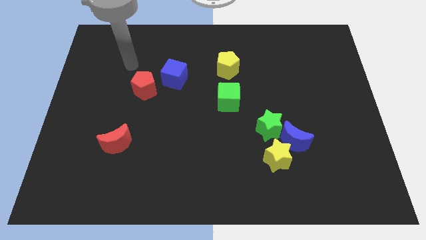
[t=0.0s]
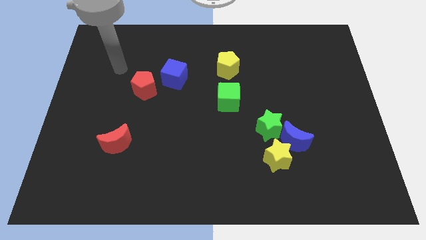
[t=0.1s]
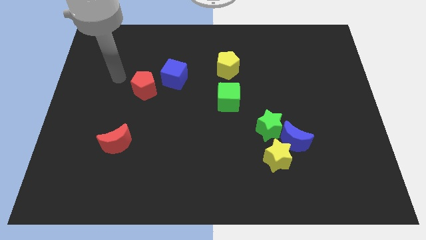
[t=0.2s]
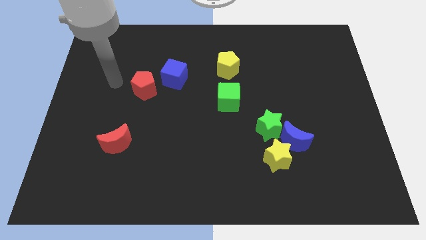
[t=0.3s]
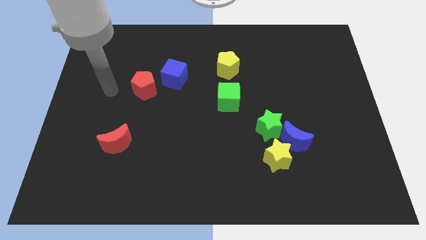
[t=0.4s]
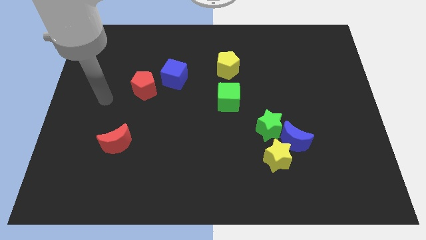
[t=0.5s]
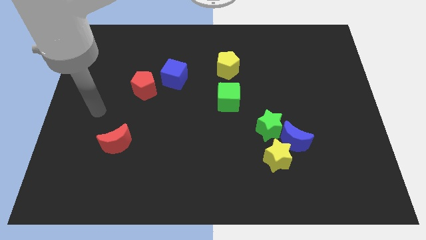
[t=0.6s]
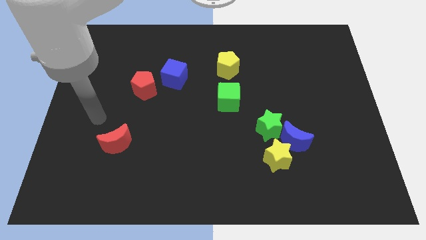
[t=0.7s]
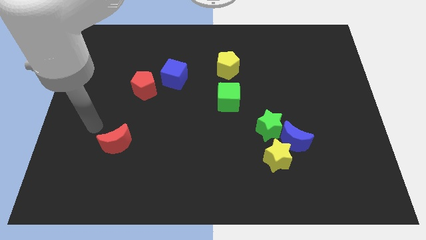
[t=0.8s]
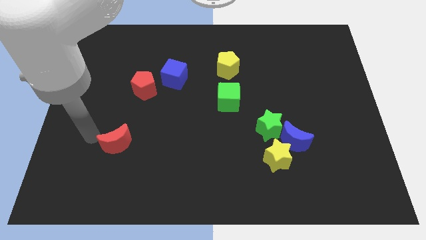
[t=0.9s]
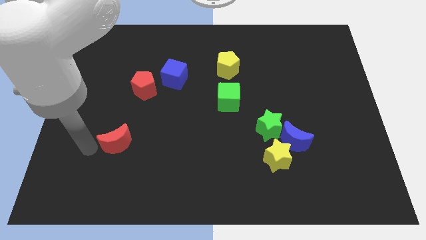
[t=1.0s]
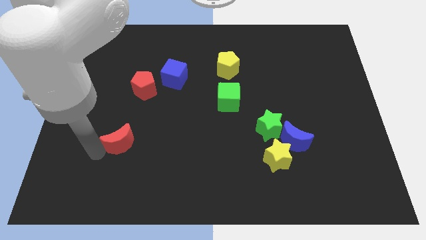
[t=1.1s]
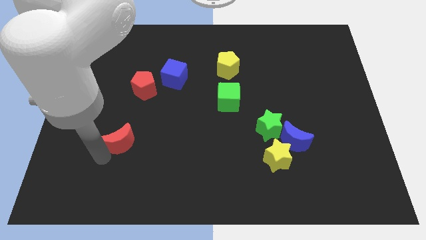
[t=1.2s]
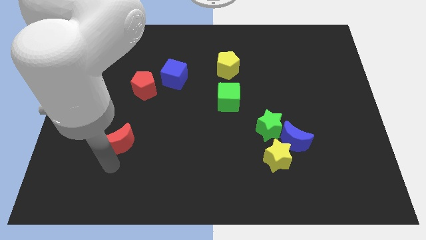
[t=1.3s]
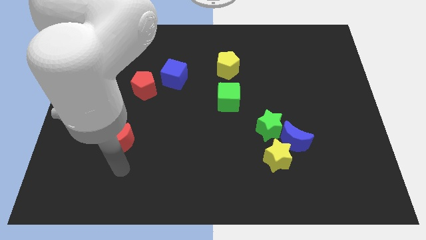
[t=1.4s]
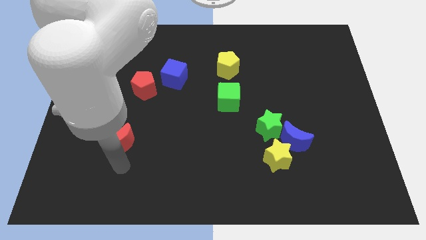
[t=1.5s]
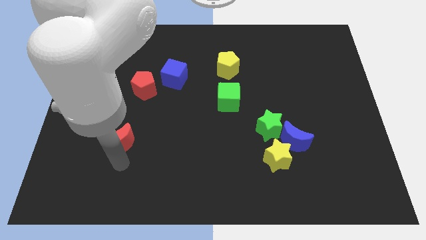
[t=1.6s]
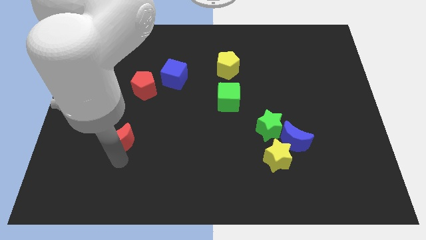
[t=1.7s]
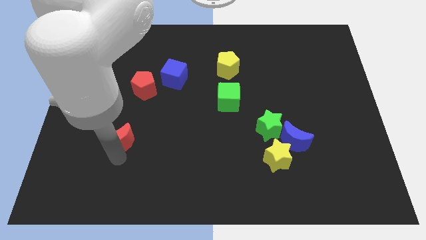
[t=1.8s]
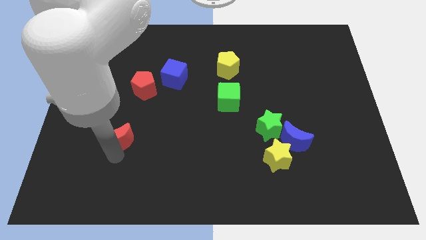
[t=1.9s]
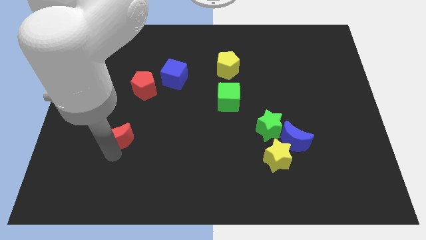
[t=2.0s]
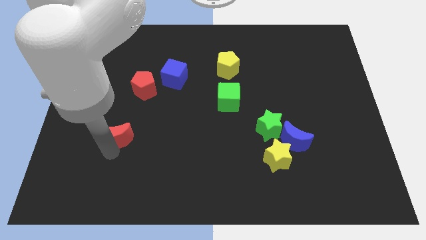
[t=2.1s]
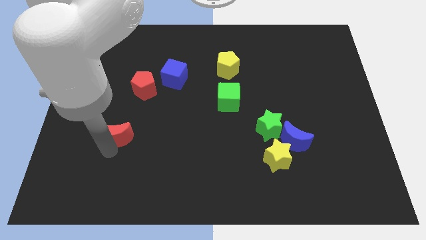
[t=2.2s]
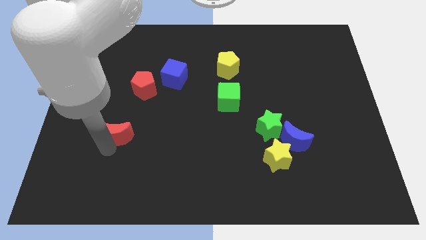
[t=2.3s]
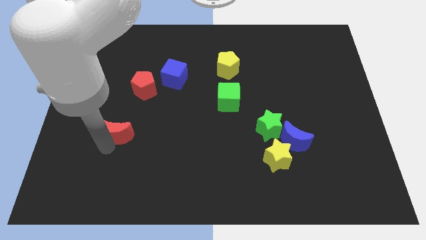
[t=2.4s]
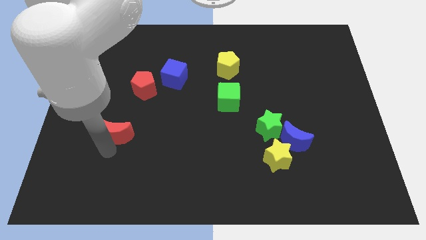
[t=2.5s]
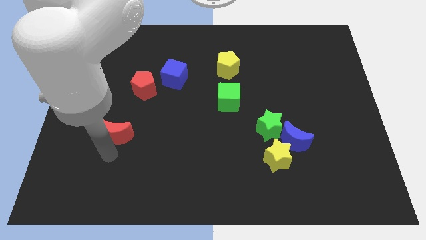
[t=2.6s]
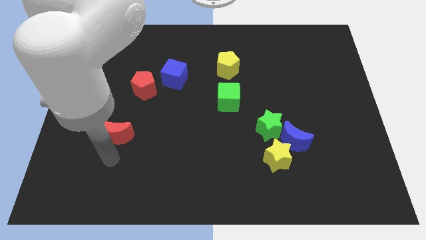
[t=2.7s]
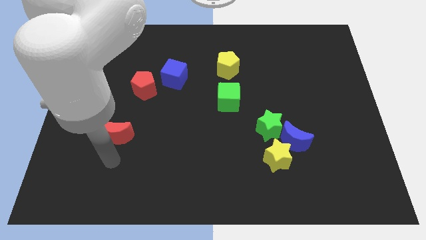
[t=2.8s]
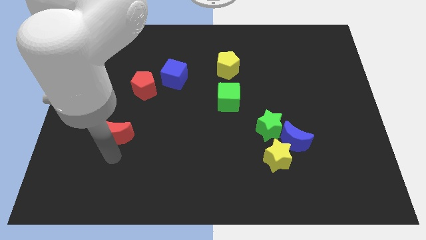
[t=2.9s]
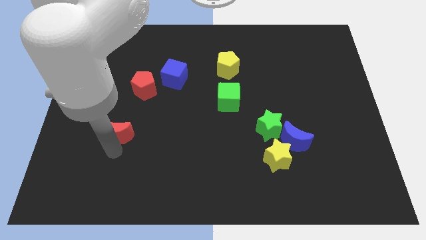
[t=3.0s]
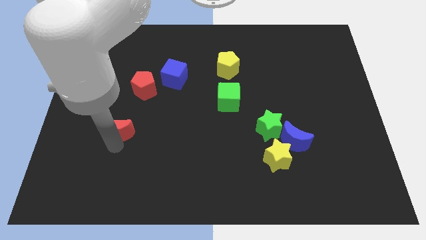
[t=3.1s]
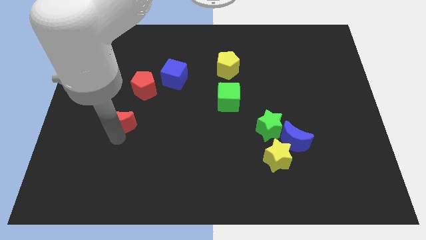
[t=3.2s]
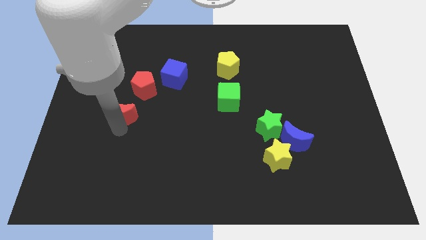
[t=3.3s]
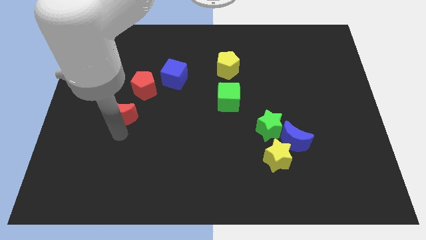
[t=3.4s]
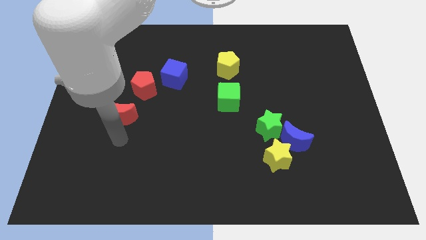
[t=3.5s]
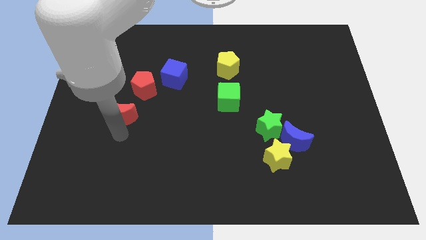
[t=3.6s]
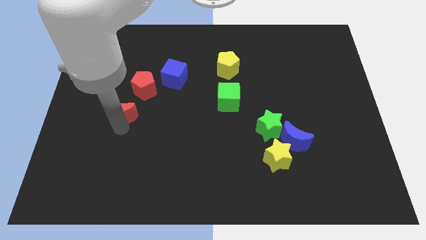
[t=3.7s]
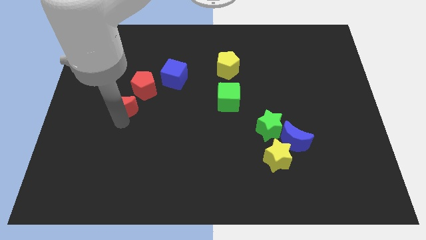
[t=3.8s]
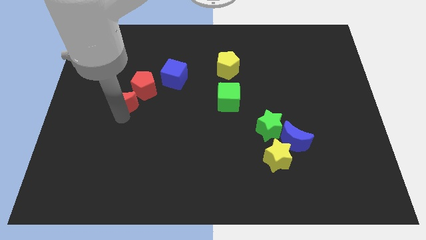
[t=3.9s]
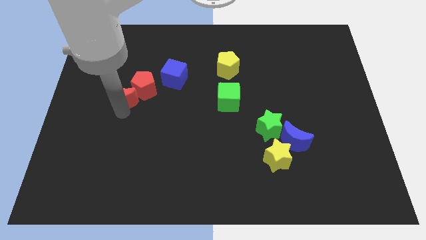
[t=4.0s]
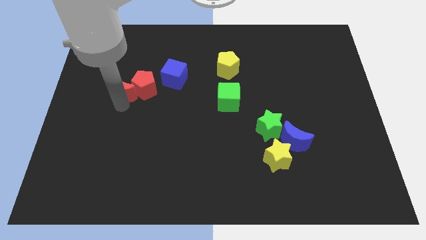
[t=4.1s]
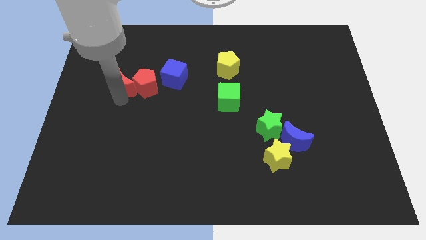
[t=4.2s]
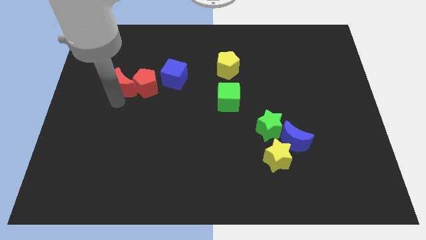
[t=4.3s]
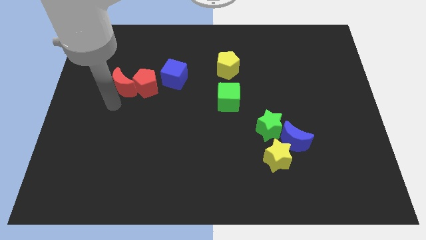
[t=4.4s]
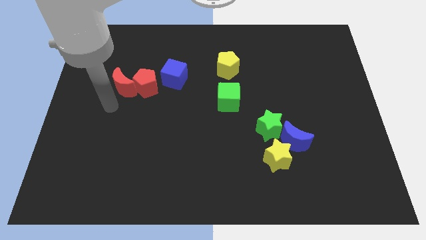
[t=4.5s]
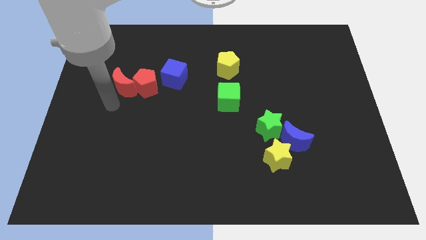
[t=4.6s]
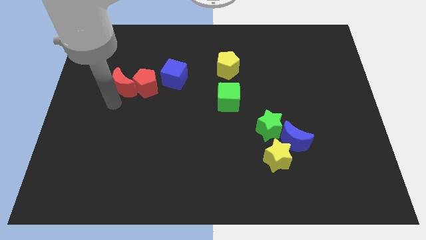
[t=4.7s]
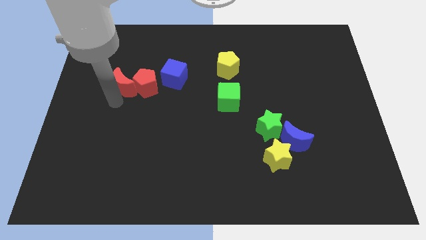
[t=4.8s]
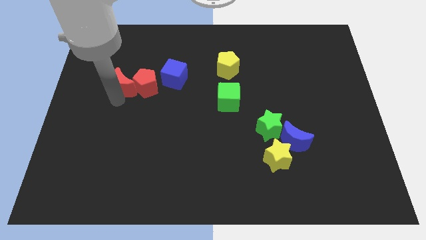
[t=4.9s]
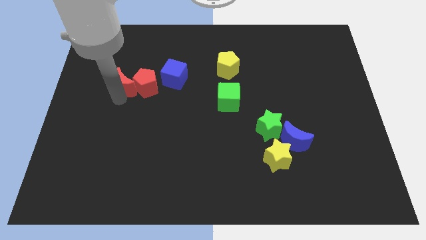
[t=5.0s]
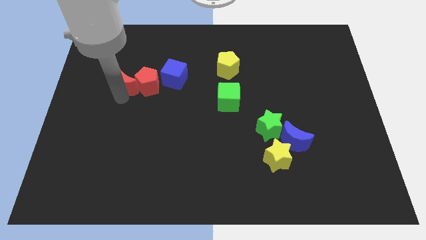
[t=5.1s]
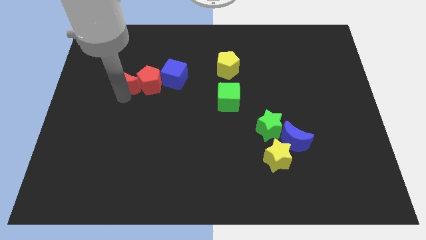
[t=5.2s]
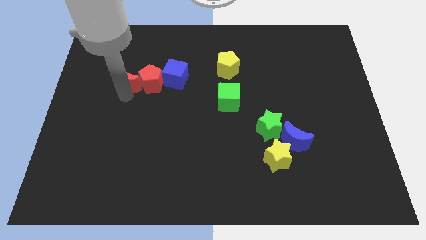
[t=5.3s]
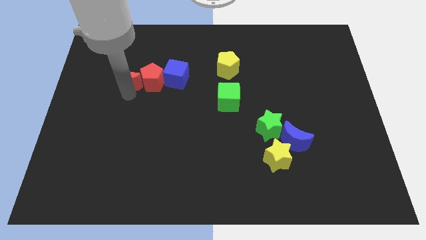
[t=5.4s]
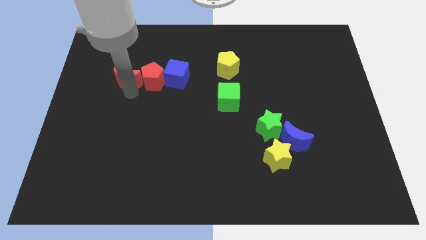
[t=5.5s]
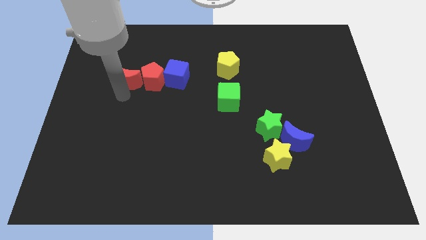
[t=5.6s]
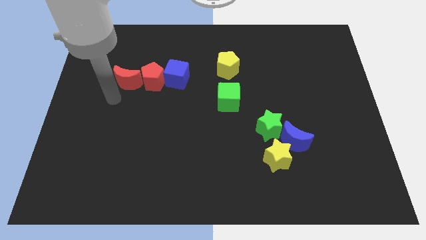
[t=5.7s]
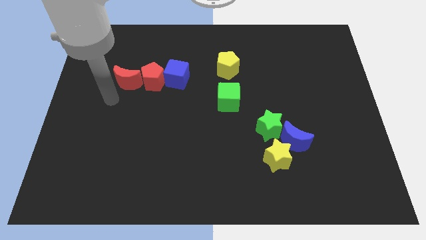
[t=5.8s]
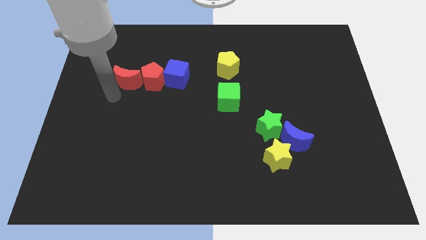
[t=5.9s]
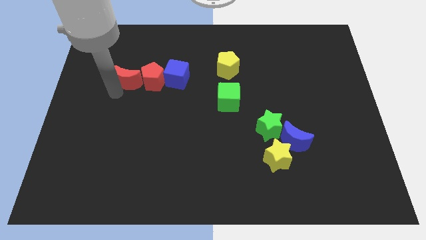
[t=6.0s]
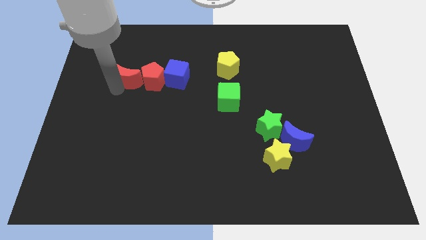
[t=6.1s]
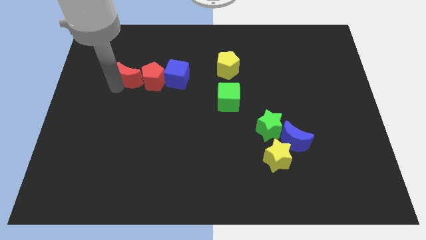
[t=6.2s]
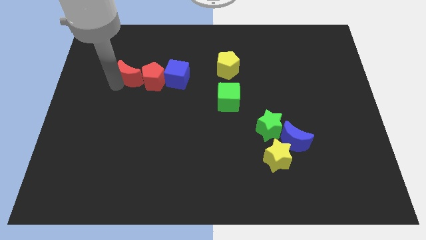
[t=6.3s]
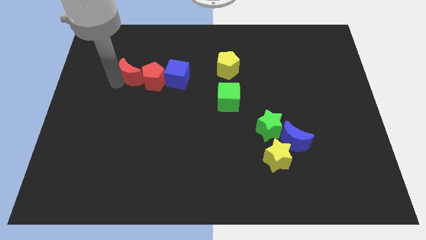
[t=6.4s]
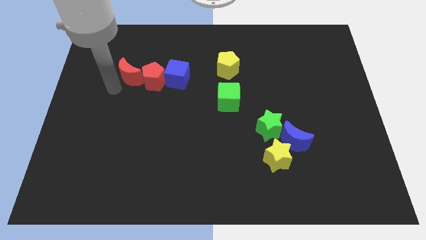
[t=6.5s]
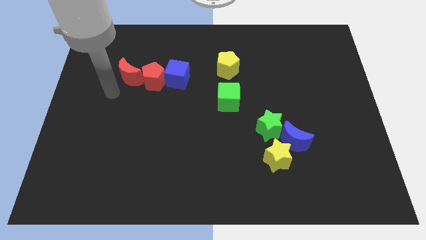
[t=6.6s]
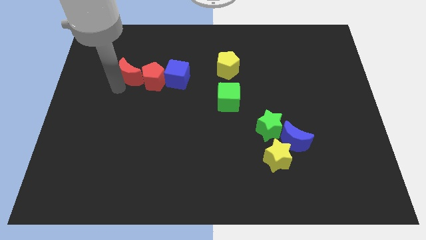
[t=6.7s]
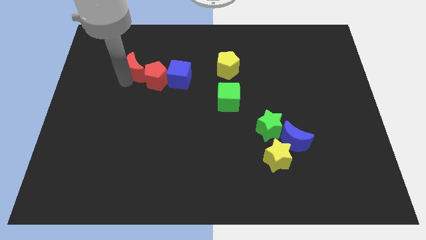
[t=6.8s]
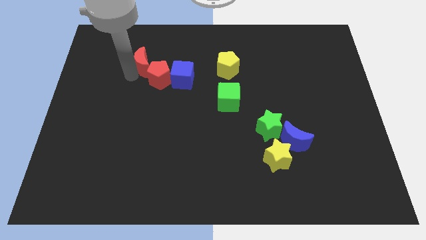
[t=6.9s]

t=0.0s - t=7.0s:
push the red moon to the top of the red pentagon

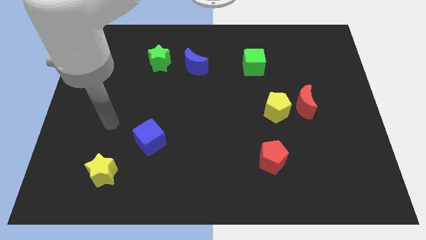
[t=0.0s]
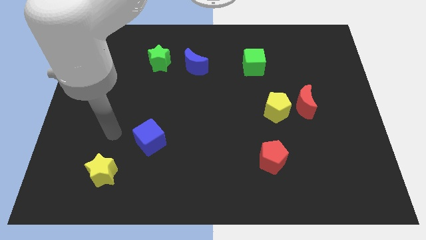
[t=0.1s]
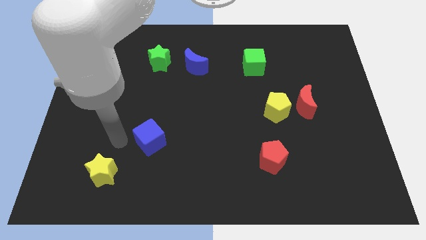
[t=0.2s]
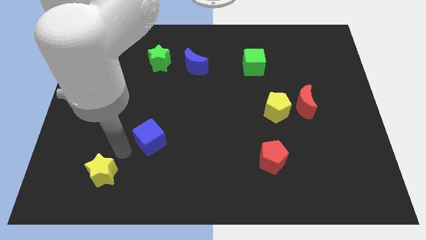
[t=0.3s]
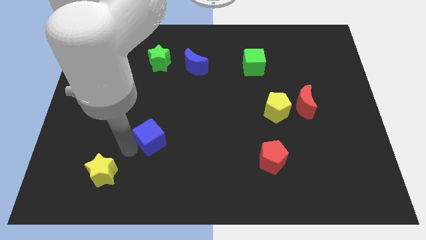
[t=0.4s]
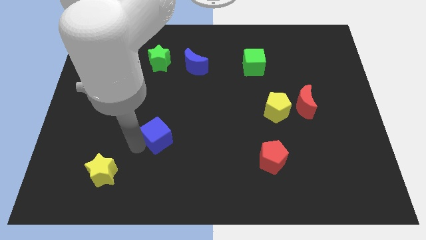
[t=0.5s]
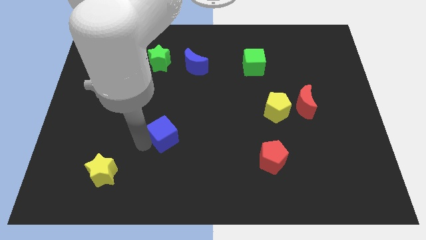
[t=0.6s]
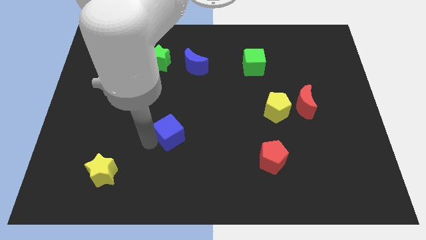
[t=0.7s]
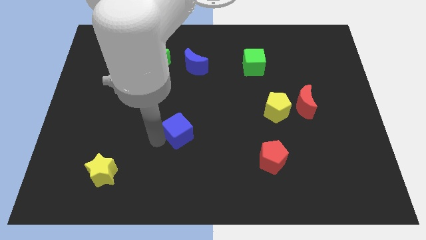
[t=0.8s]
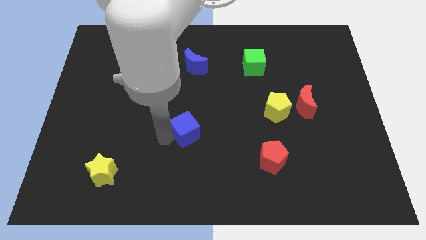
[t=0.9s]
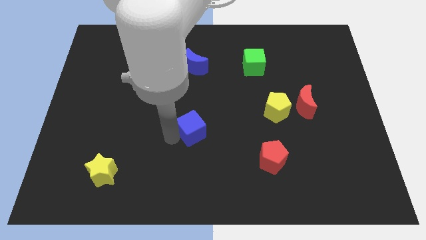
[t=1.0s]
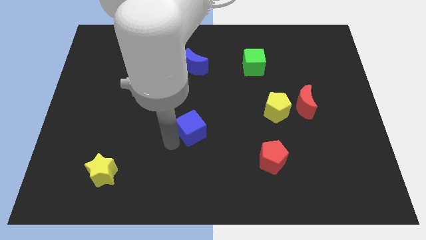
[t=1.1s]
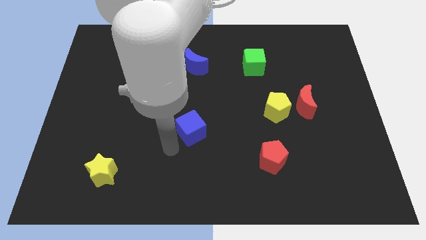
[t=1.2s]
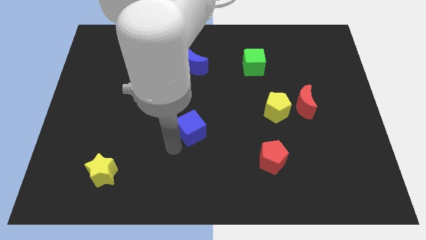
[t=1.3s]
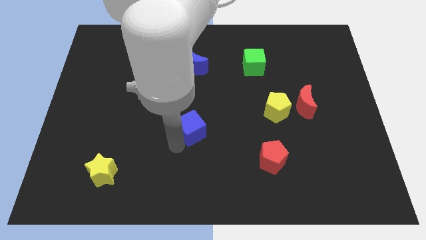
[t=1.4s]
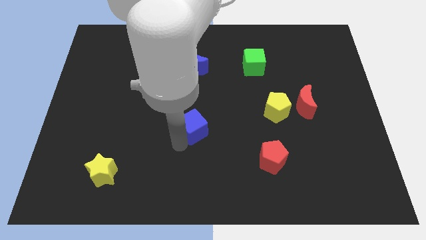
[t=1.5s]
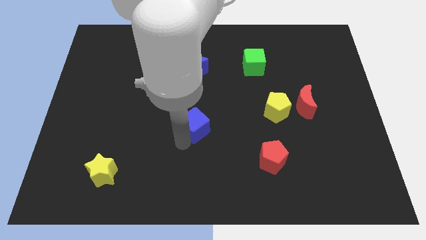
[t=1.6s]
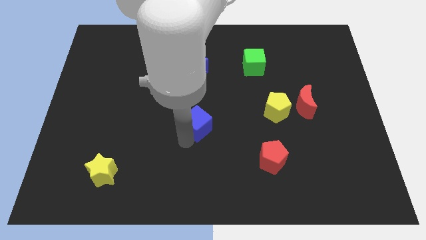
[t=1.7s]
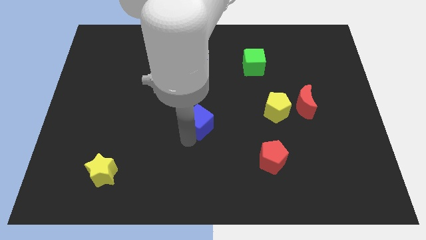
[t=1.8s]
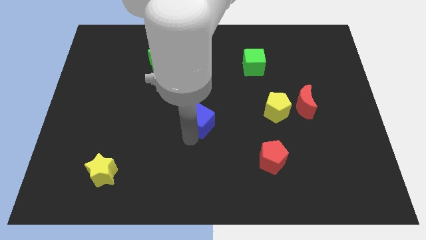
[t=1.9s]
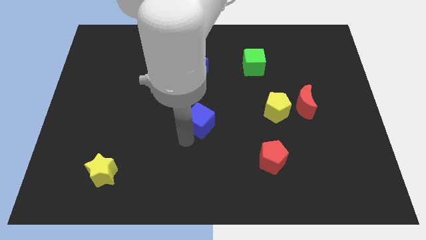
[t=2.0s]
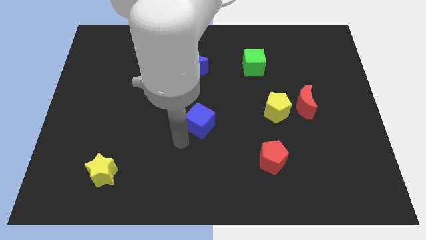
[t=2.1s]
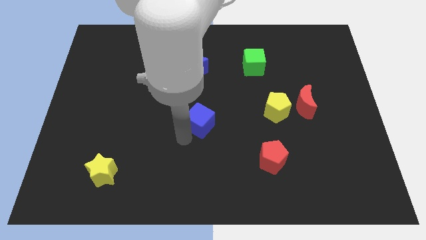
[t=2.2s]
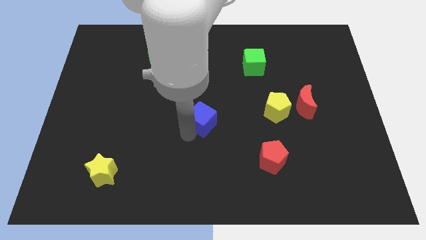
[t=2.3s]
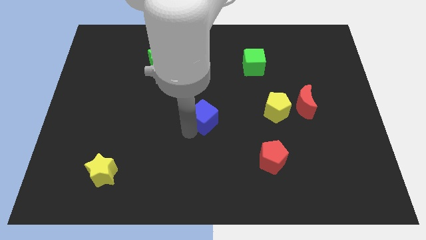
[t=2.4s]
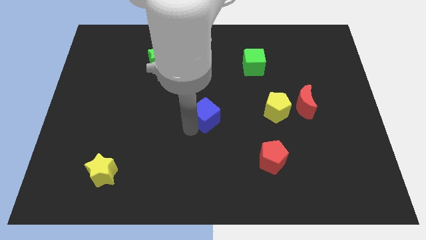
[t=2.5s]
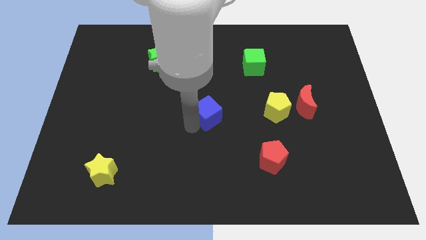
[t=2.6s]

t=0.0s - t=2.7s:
slide the blue cube to the left of the yellow pentagon
